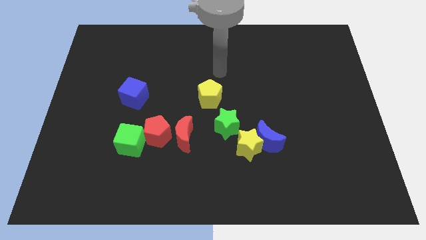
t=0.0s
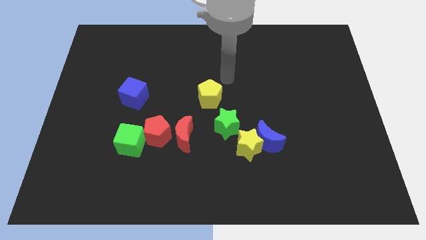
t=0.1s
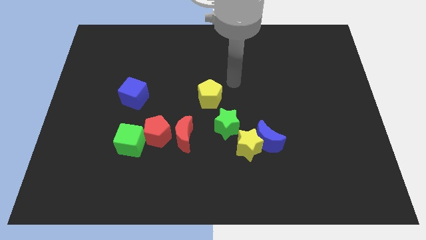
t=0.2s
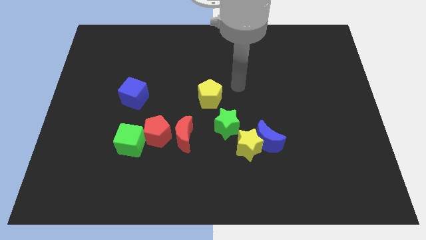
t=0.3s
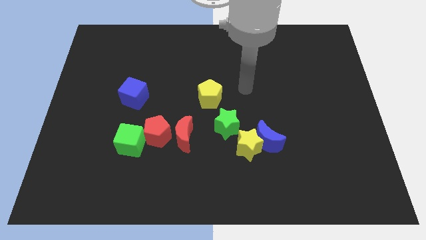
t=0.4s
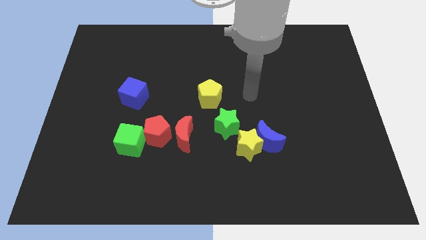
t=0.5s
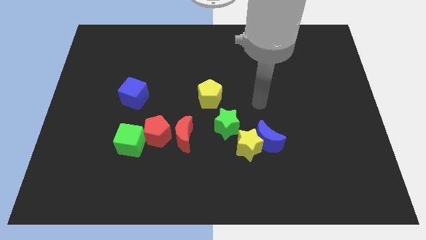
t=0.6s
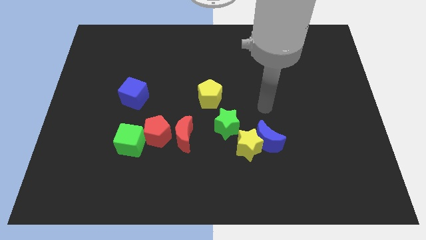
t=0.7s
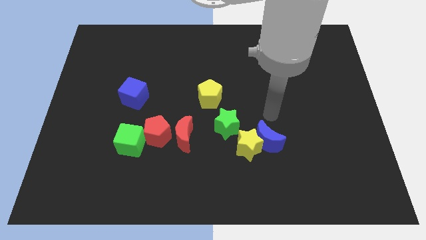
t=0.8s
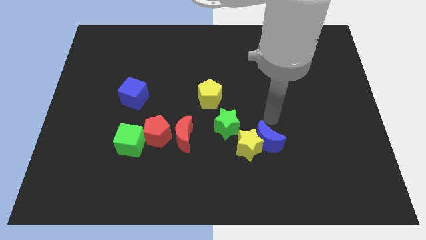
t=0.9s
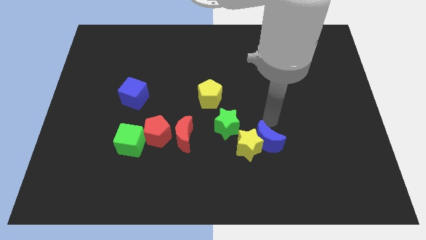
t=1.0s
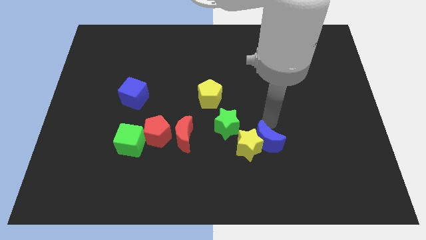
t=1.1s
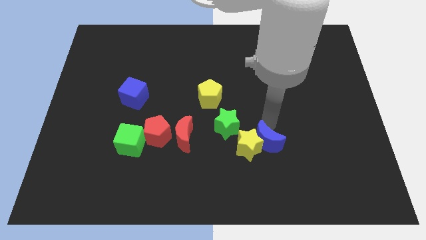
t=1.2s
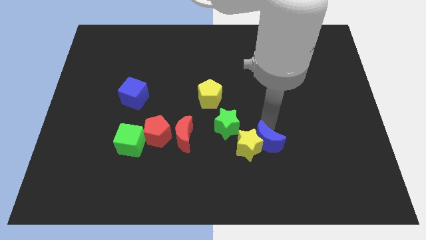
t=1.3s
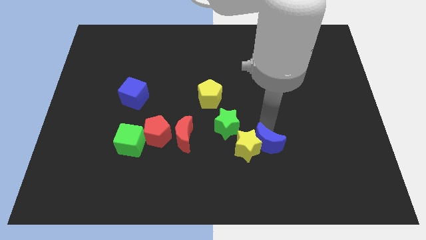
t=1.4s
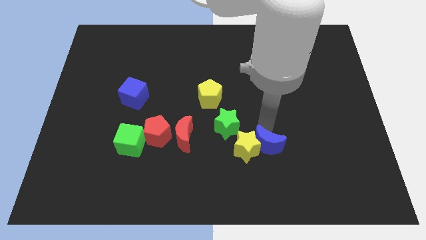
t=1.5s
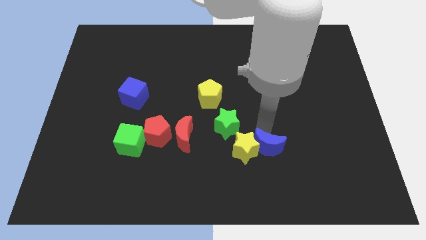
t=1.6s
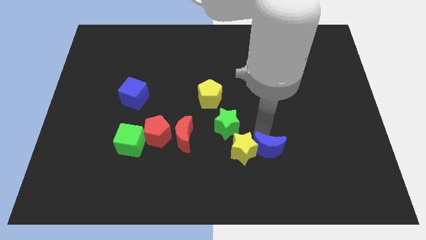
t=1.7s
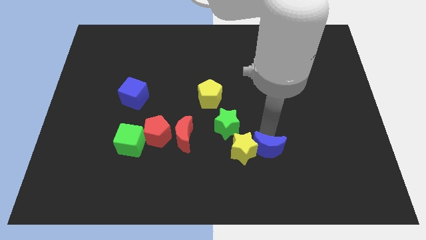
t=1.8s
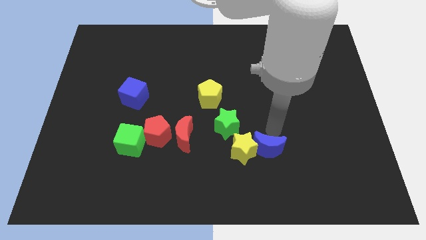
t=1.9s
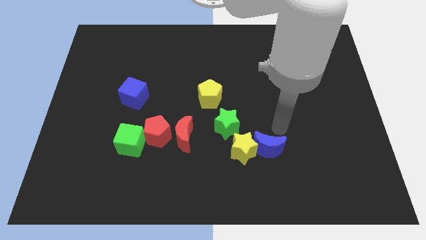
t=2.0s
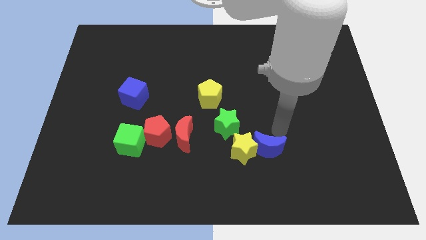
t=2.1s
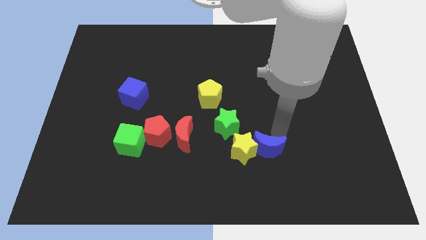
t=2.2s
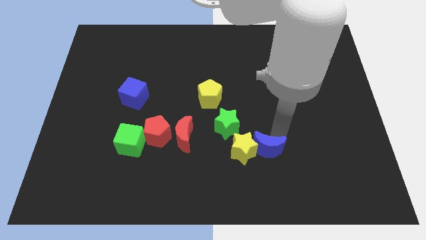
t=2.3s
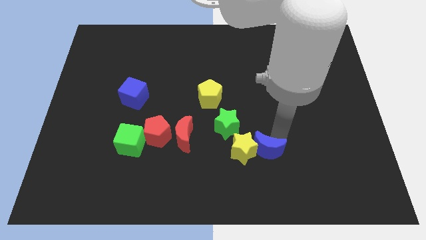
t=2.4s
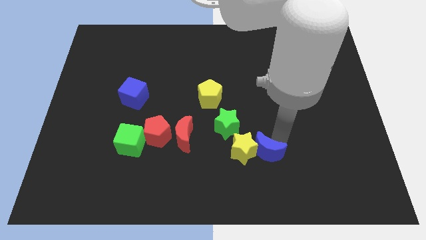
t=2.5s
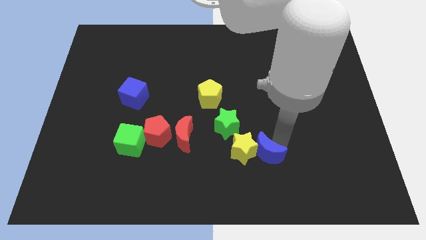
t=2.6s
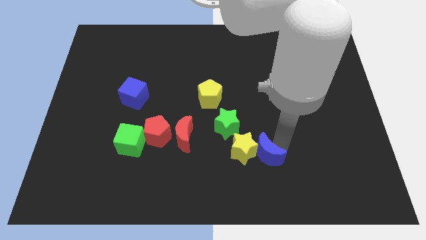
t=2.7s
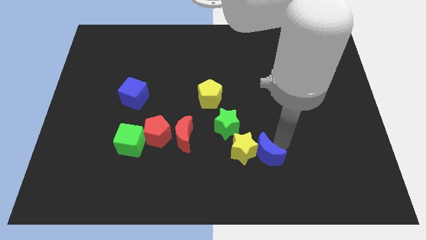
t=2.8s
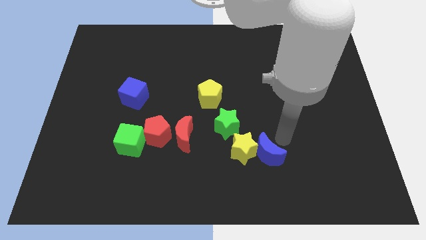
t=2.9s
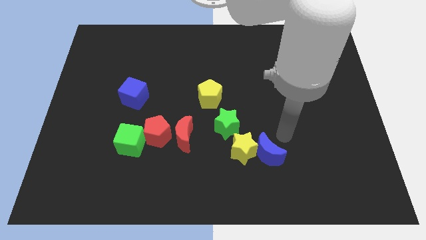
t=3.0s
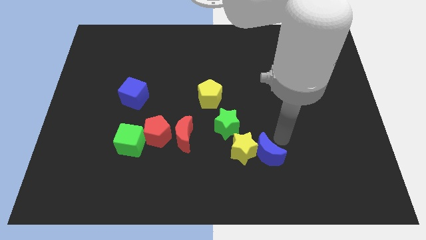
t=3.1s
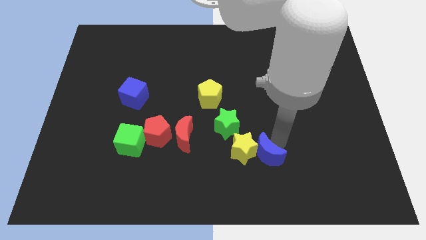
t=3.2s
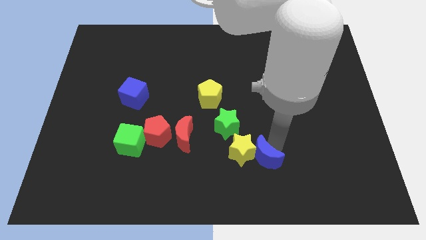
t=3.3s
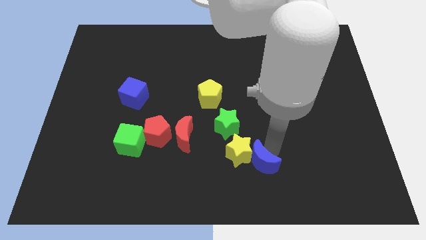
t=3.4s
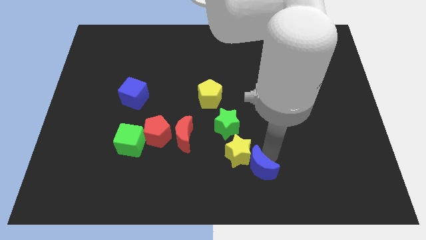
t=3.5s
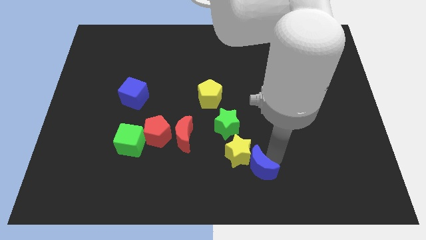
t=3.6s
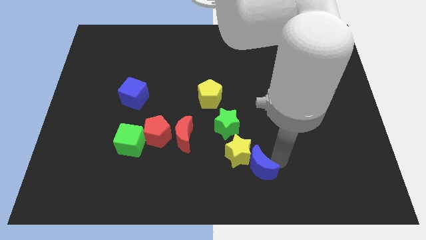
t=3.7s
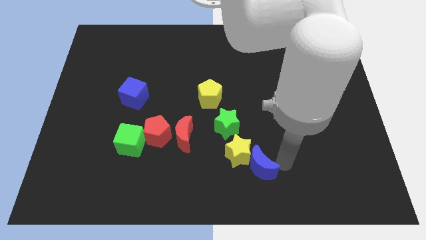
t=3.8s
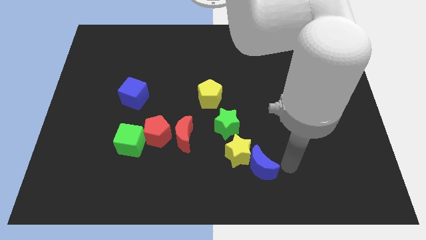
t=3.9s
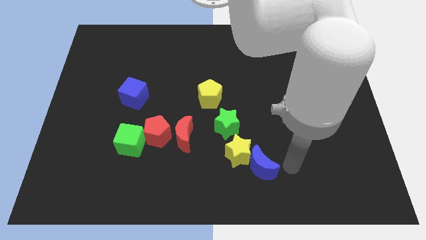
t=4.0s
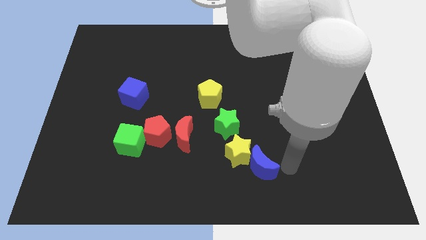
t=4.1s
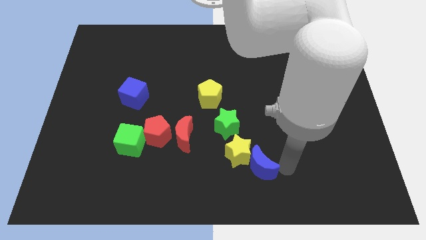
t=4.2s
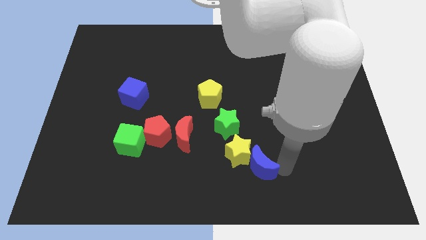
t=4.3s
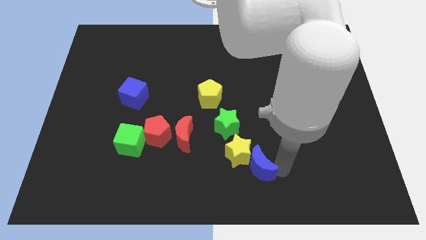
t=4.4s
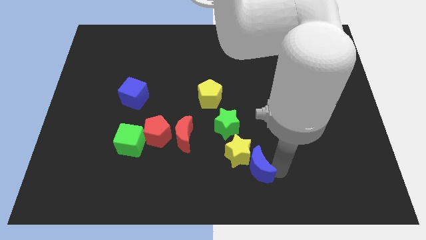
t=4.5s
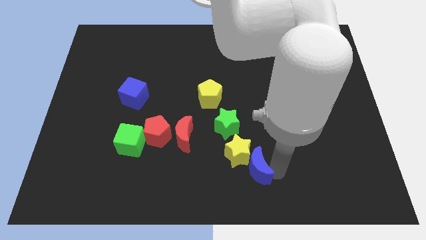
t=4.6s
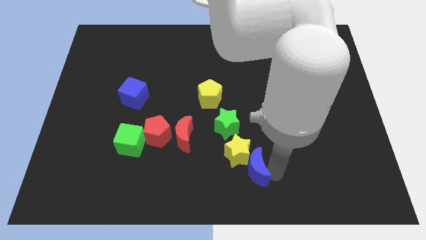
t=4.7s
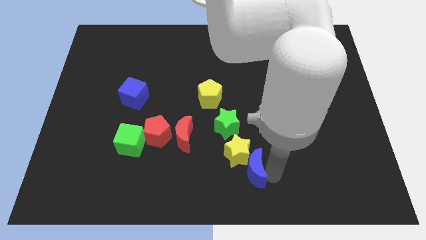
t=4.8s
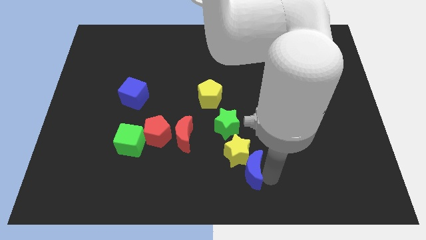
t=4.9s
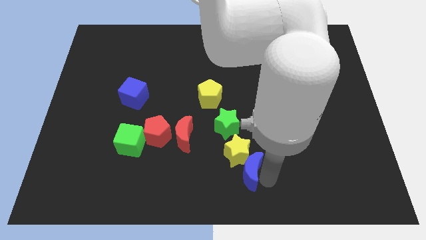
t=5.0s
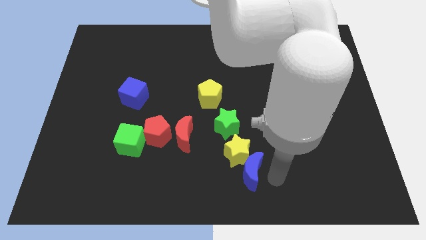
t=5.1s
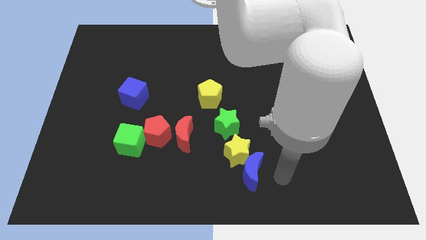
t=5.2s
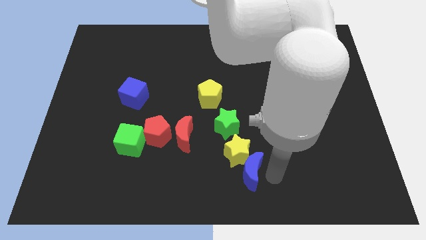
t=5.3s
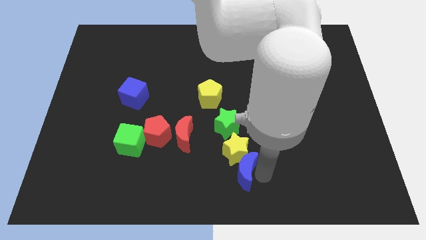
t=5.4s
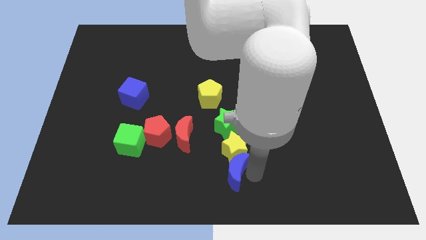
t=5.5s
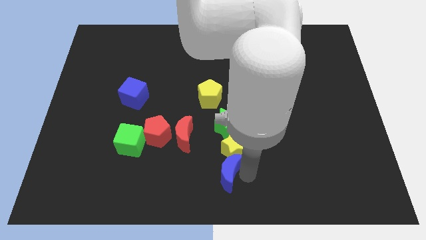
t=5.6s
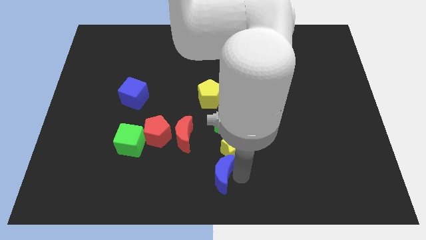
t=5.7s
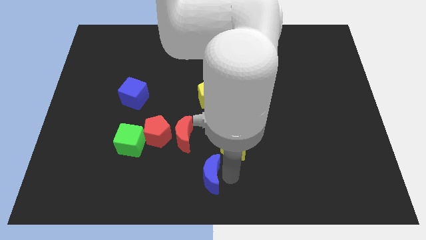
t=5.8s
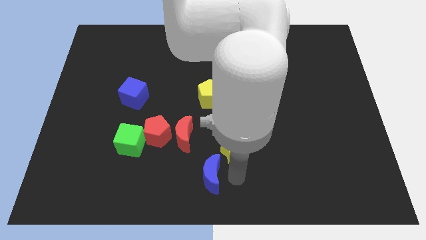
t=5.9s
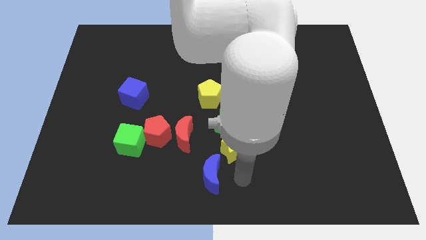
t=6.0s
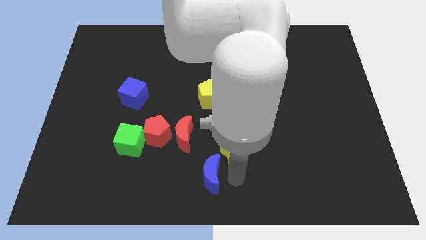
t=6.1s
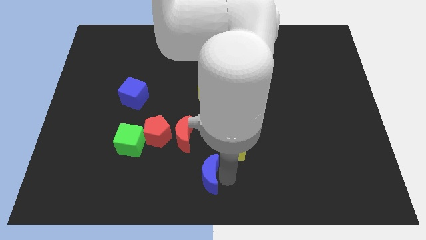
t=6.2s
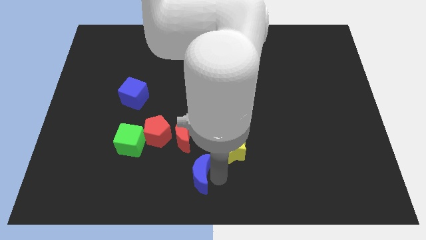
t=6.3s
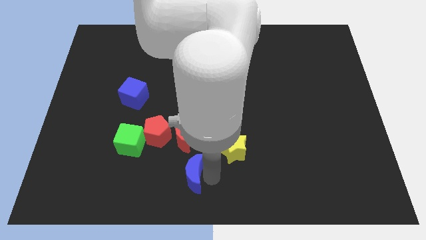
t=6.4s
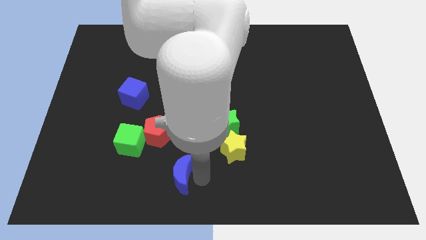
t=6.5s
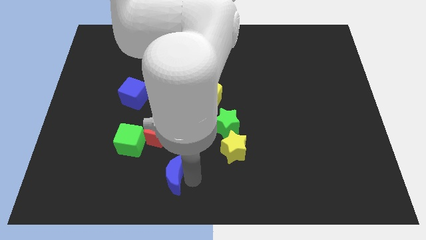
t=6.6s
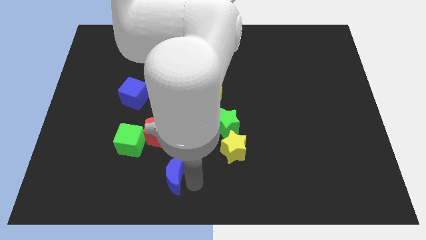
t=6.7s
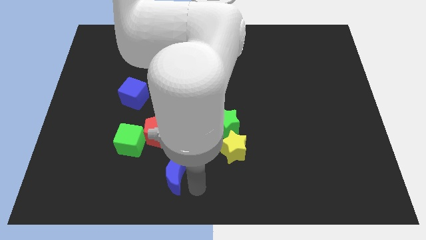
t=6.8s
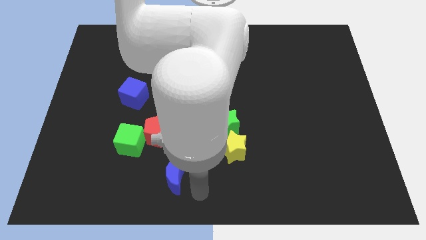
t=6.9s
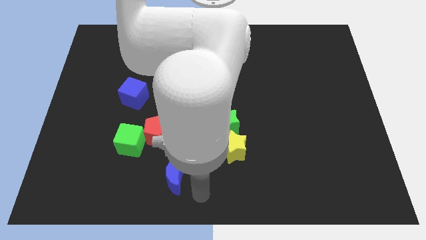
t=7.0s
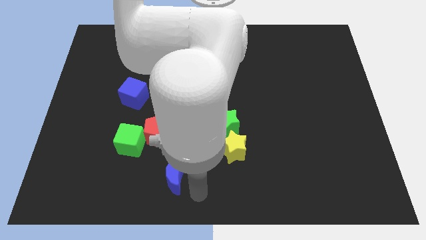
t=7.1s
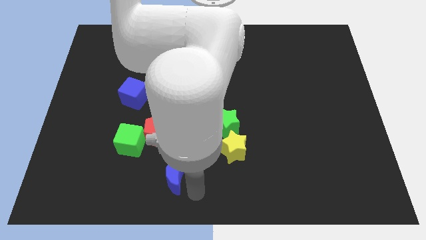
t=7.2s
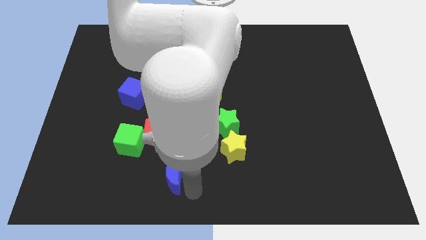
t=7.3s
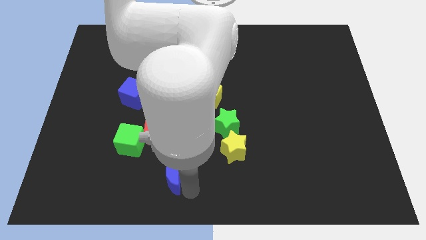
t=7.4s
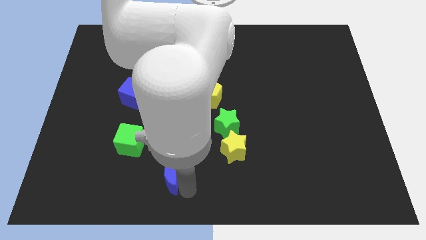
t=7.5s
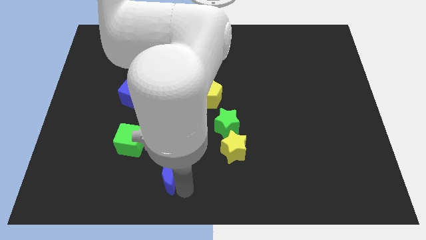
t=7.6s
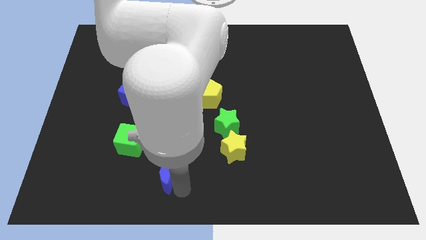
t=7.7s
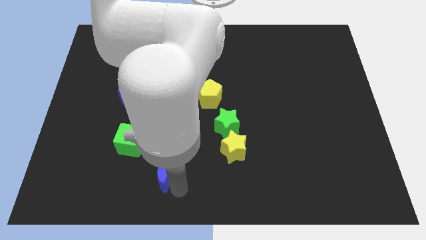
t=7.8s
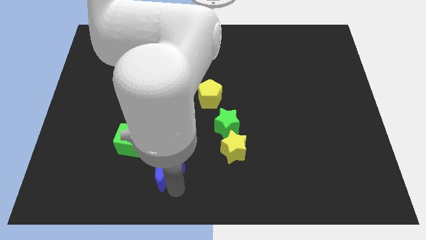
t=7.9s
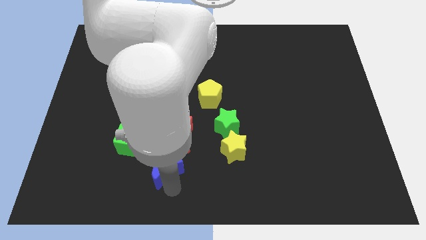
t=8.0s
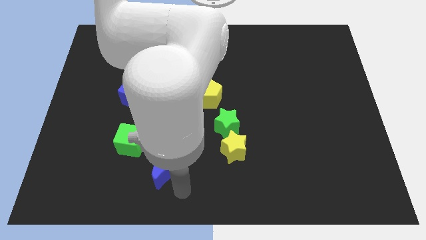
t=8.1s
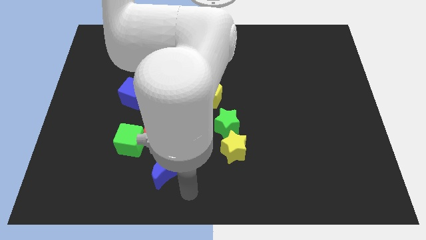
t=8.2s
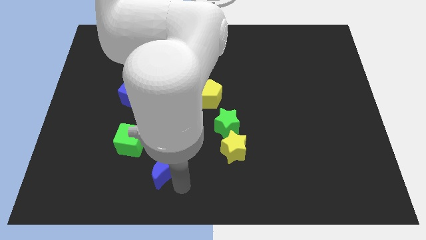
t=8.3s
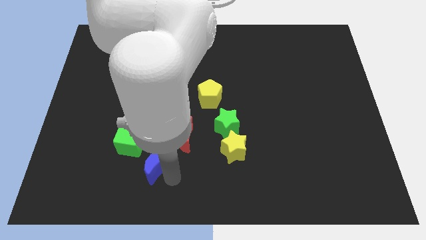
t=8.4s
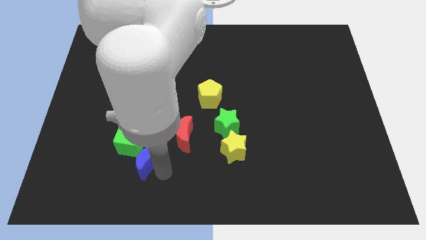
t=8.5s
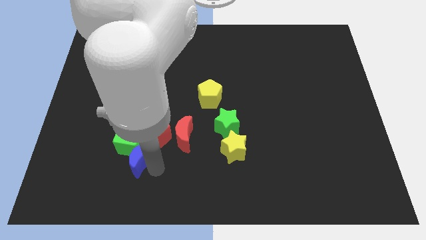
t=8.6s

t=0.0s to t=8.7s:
move the blue moon close to the green cube
